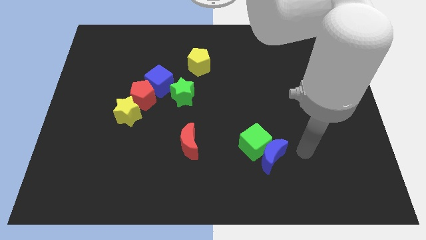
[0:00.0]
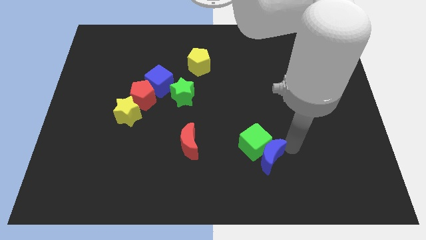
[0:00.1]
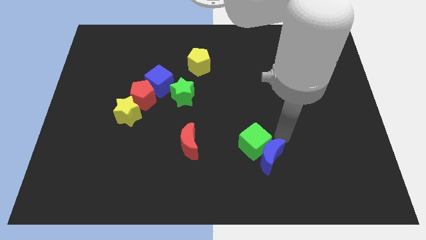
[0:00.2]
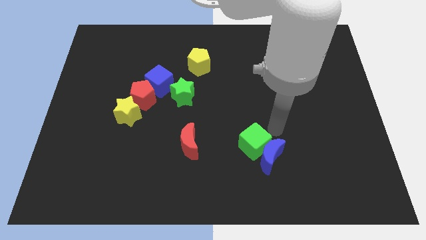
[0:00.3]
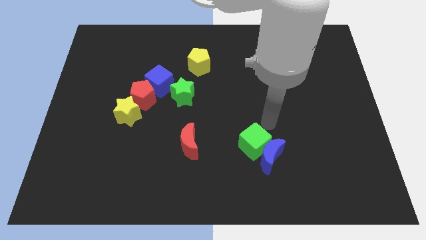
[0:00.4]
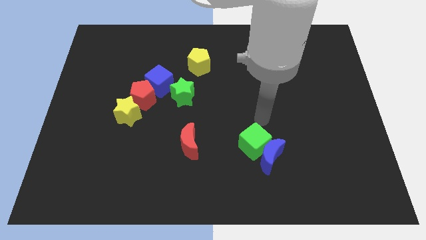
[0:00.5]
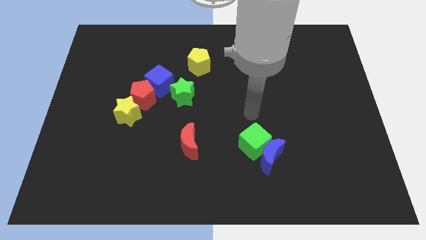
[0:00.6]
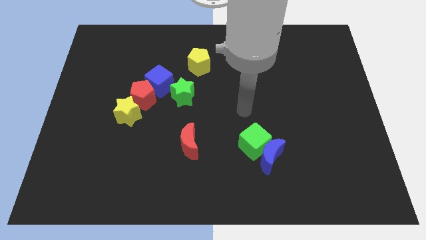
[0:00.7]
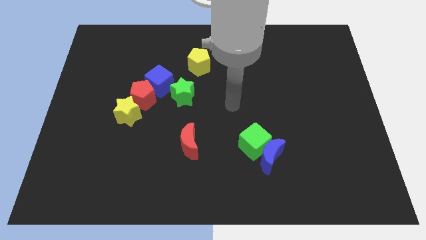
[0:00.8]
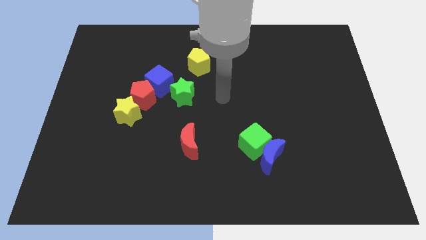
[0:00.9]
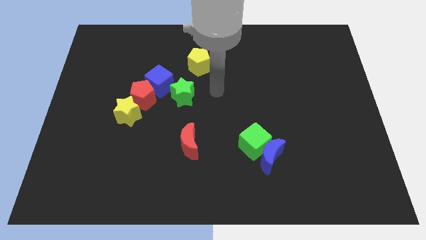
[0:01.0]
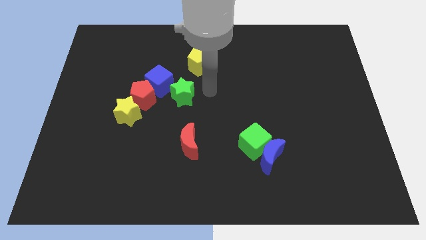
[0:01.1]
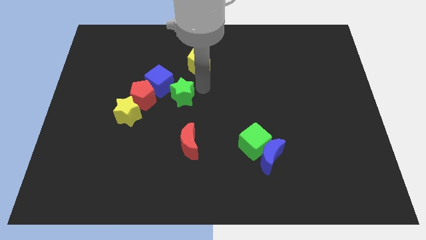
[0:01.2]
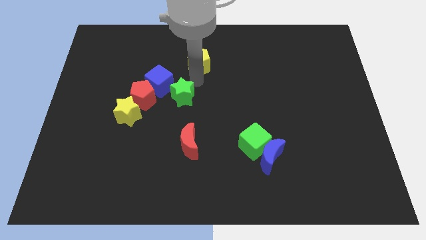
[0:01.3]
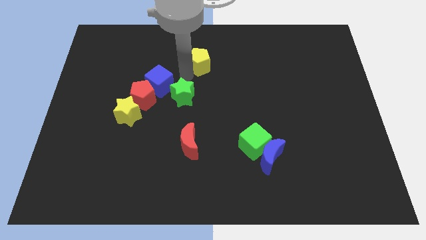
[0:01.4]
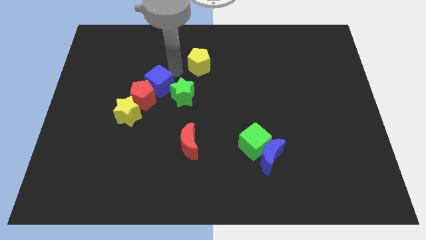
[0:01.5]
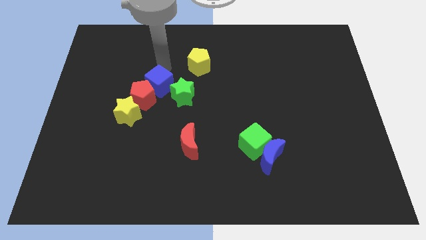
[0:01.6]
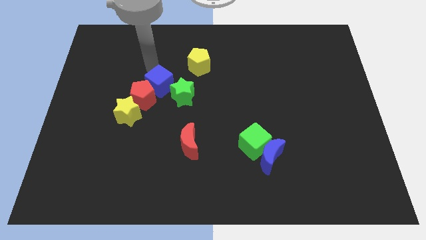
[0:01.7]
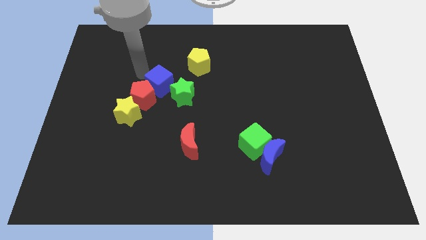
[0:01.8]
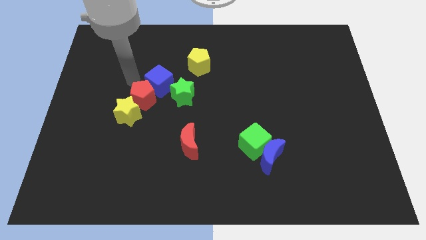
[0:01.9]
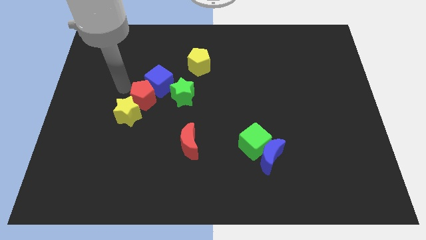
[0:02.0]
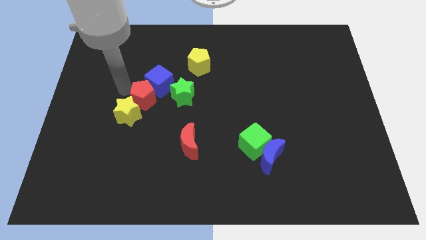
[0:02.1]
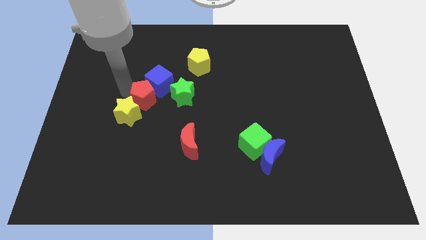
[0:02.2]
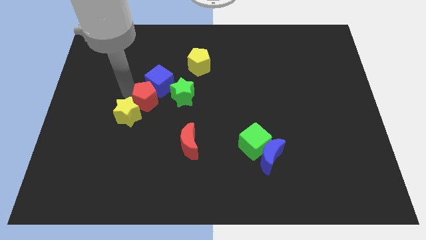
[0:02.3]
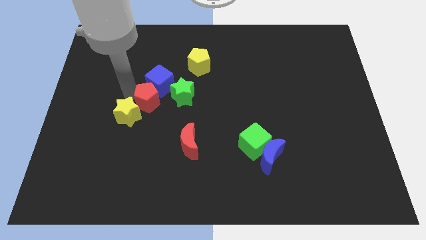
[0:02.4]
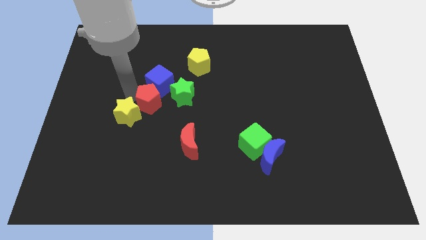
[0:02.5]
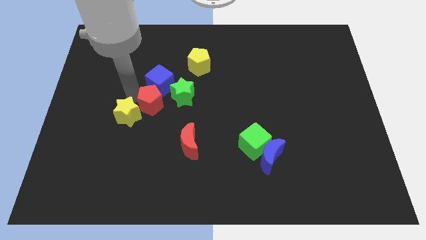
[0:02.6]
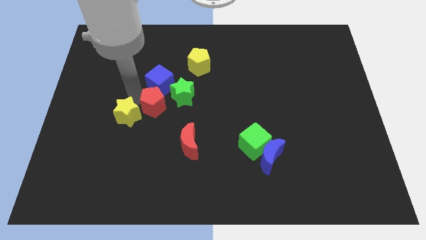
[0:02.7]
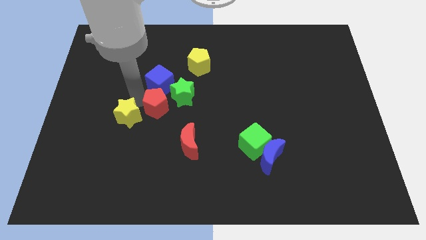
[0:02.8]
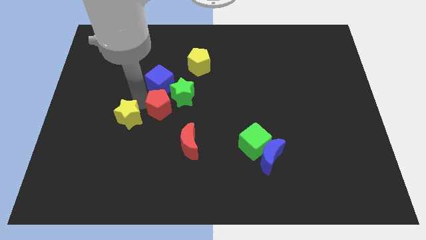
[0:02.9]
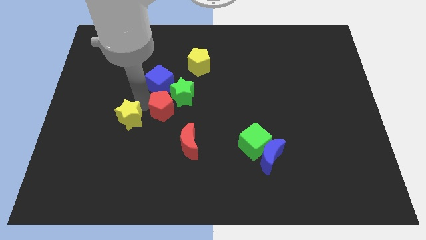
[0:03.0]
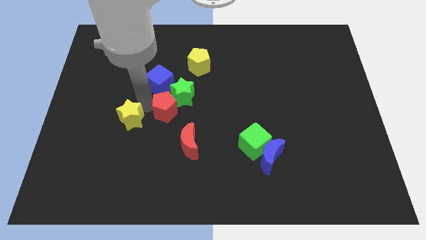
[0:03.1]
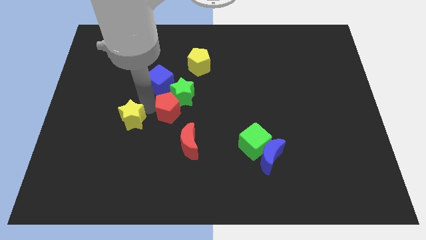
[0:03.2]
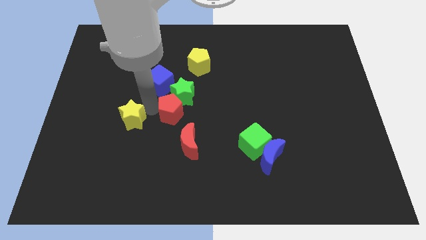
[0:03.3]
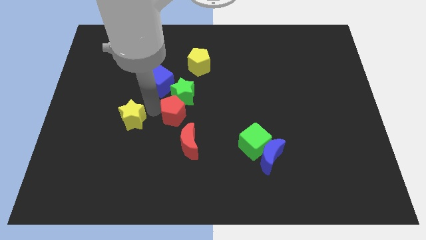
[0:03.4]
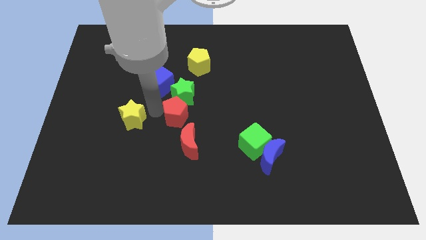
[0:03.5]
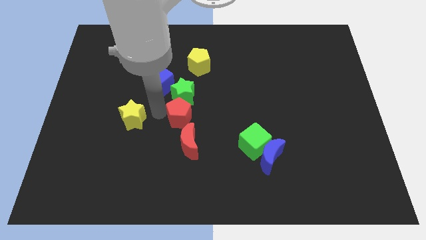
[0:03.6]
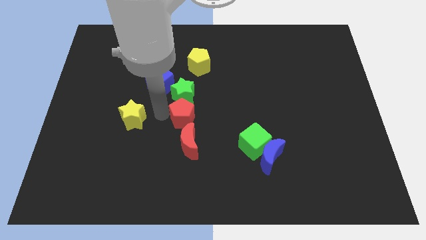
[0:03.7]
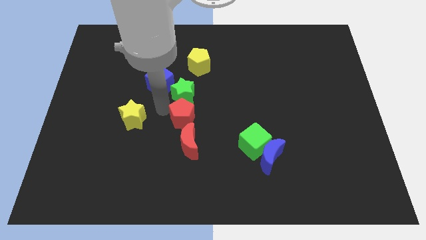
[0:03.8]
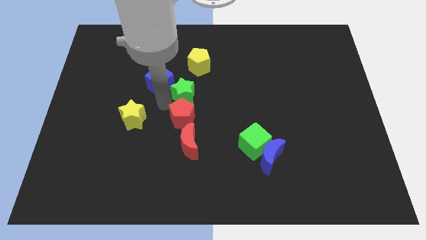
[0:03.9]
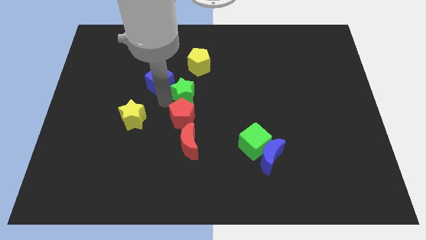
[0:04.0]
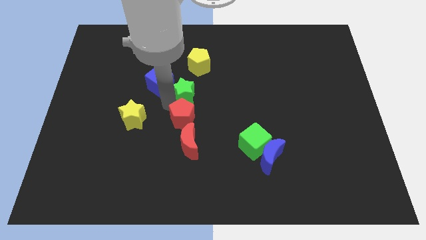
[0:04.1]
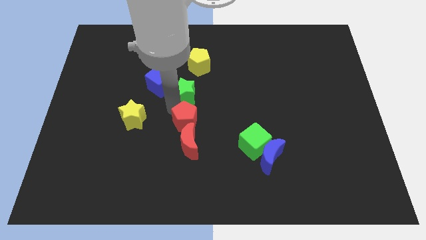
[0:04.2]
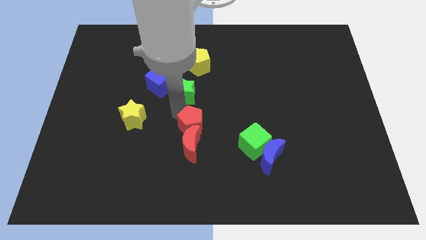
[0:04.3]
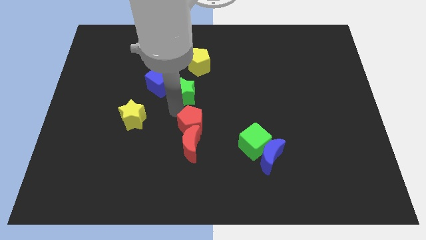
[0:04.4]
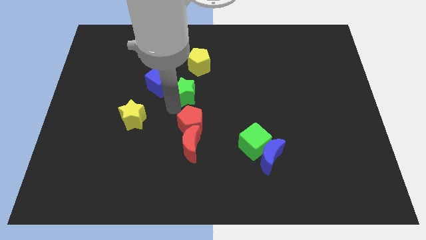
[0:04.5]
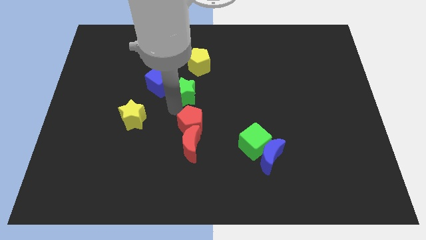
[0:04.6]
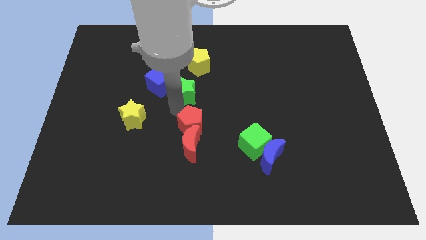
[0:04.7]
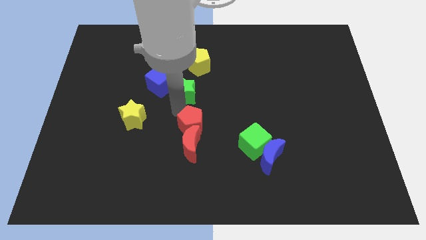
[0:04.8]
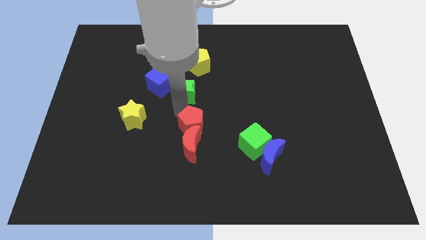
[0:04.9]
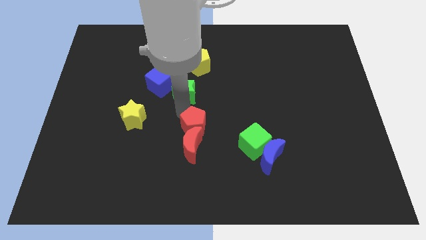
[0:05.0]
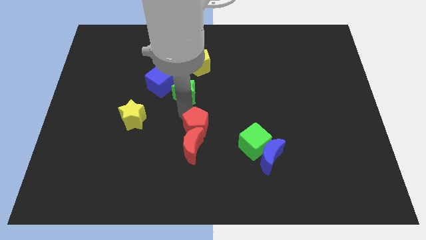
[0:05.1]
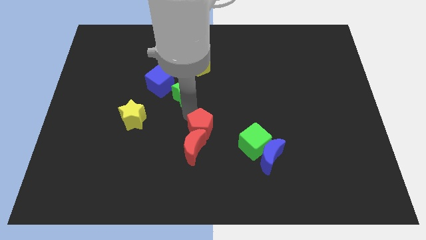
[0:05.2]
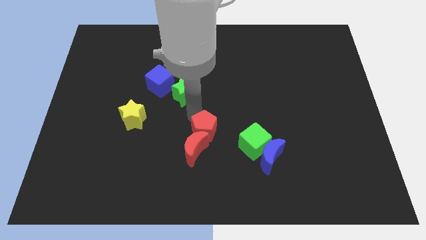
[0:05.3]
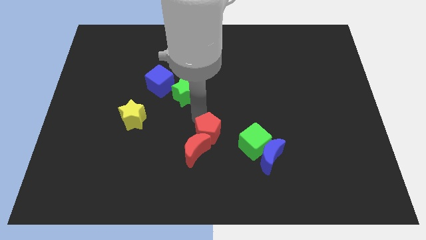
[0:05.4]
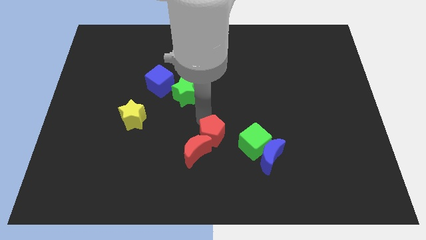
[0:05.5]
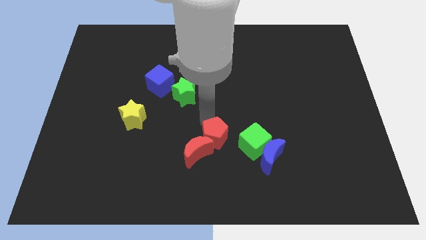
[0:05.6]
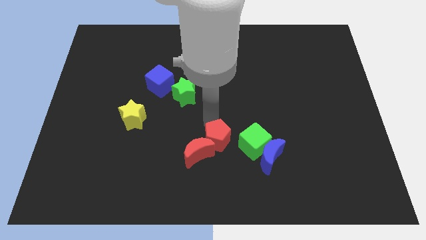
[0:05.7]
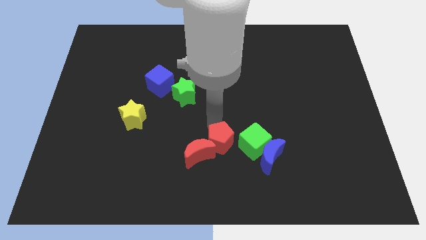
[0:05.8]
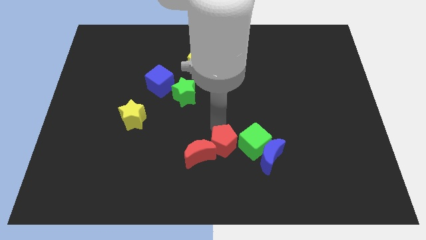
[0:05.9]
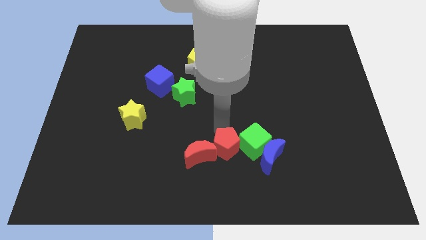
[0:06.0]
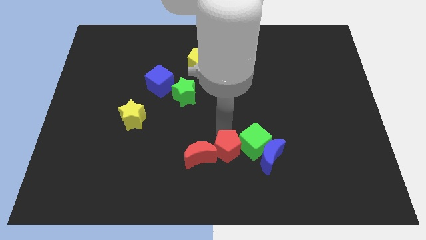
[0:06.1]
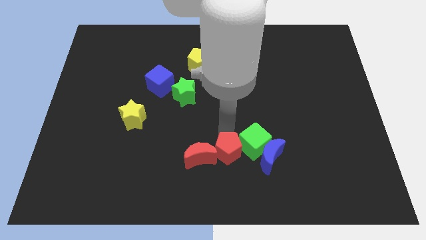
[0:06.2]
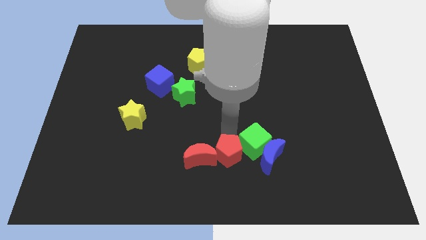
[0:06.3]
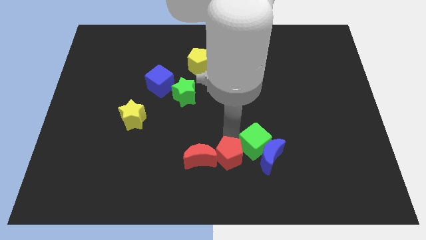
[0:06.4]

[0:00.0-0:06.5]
put the red pentagon diagonally down and to the right of the red moon

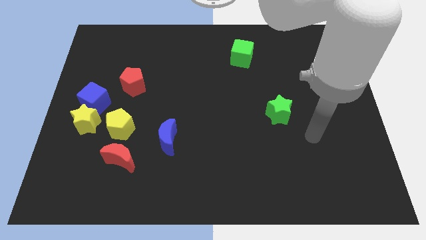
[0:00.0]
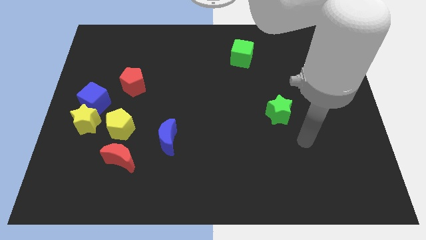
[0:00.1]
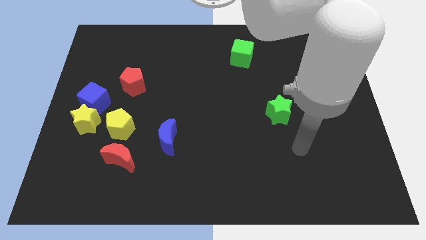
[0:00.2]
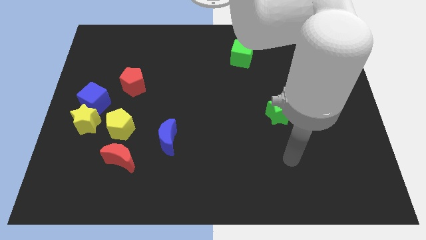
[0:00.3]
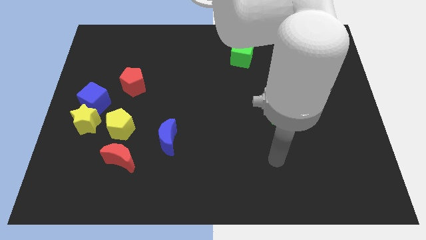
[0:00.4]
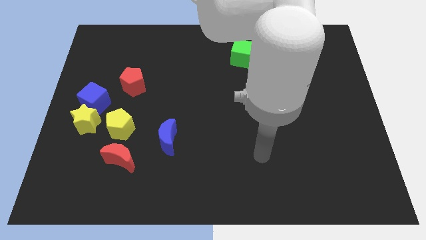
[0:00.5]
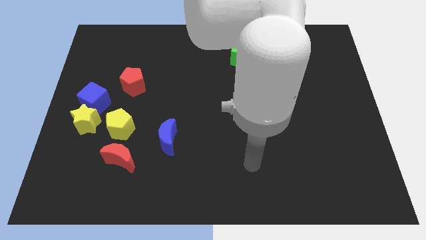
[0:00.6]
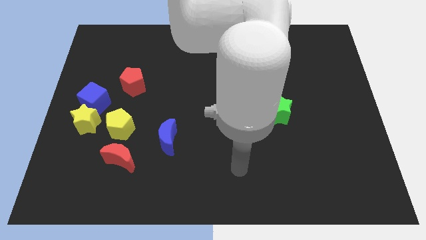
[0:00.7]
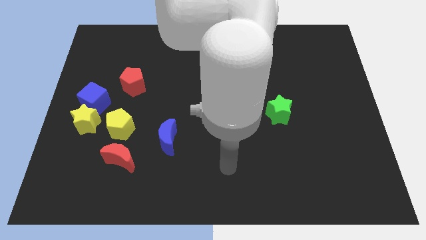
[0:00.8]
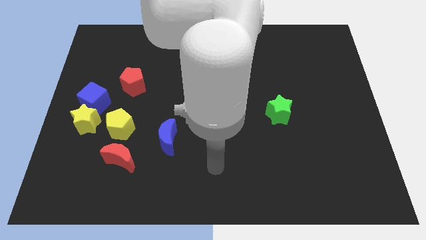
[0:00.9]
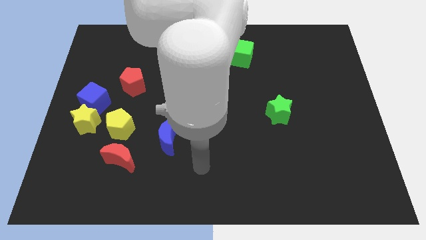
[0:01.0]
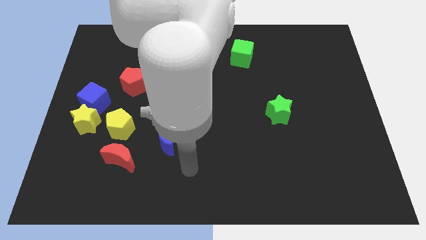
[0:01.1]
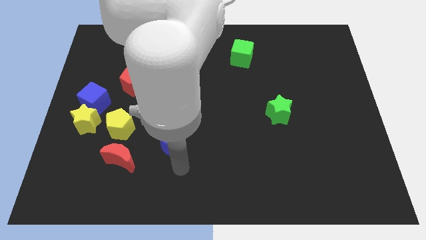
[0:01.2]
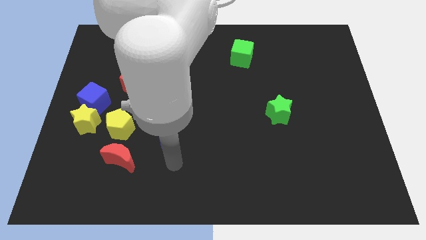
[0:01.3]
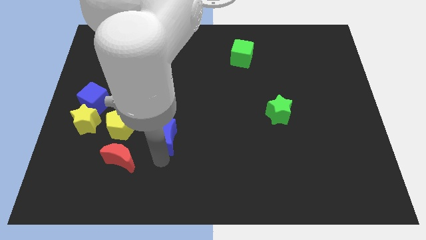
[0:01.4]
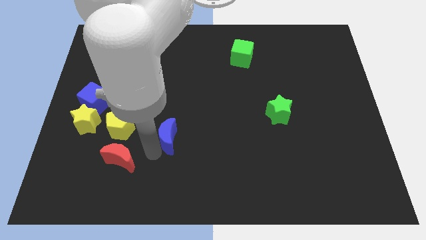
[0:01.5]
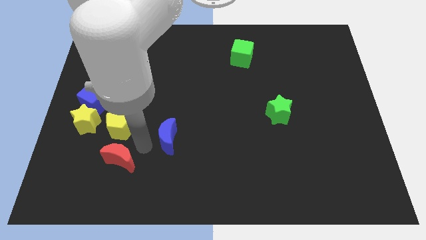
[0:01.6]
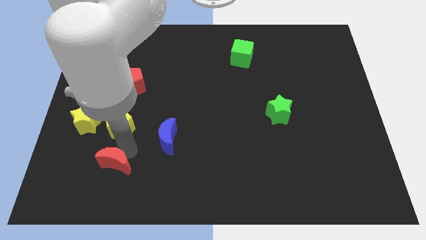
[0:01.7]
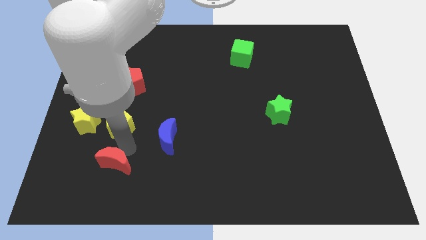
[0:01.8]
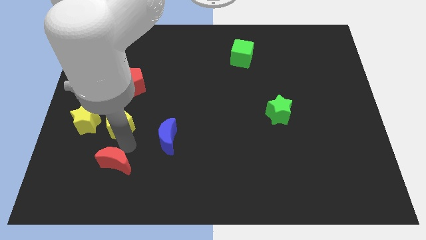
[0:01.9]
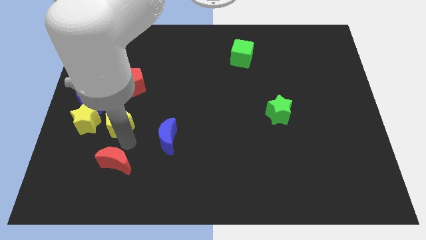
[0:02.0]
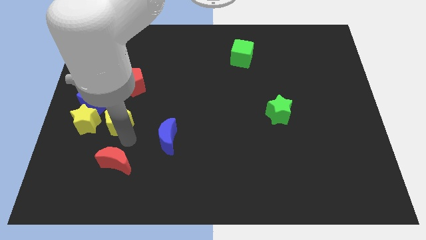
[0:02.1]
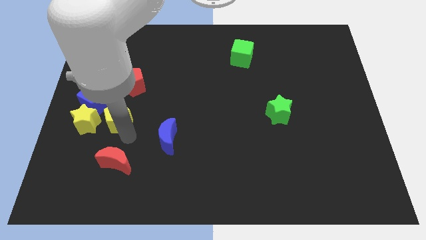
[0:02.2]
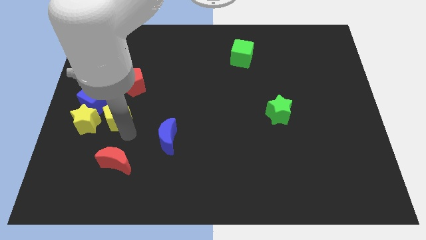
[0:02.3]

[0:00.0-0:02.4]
move the yellow pentagon to the top right of the yellow star
